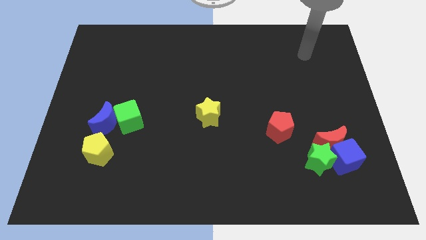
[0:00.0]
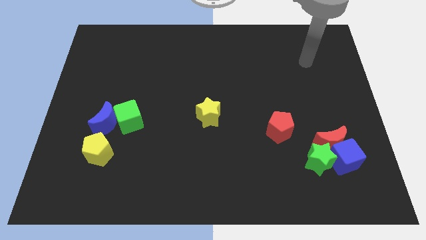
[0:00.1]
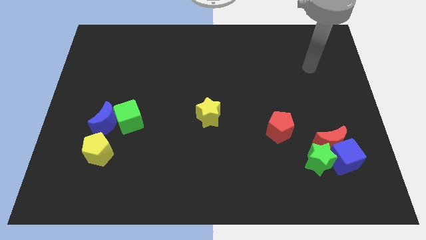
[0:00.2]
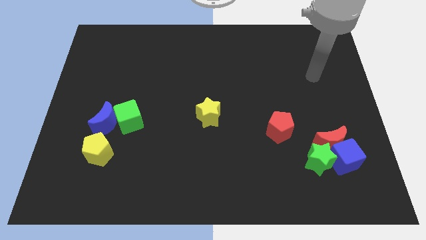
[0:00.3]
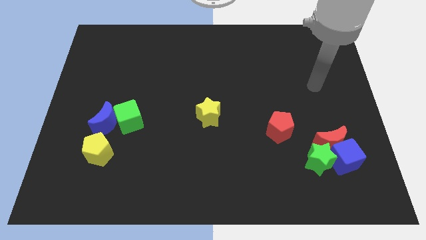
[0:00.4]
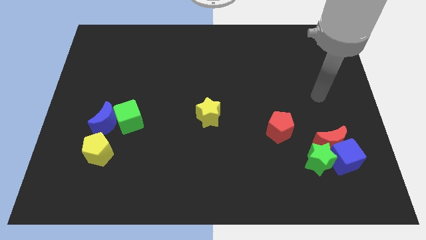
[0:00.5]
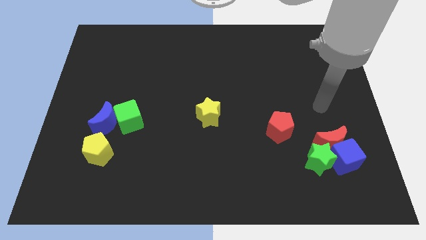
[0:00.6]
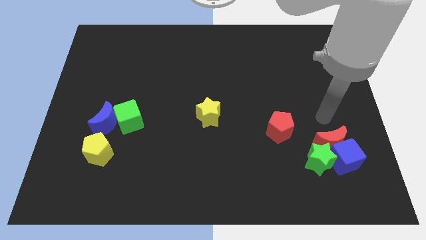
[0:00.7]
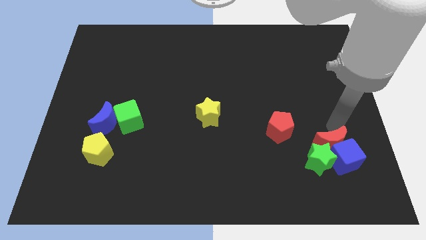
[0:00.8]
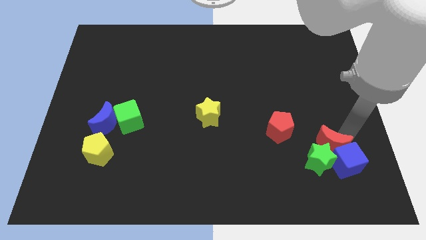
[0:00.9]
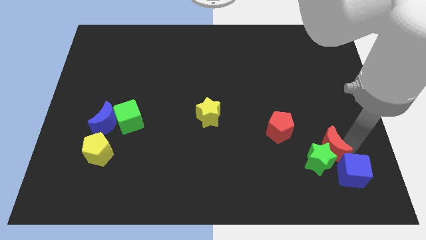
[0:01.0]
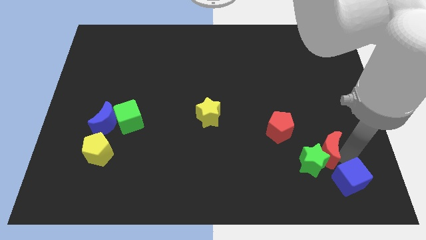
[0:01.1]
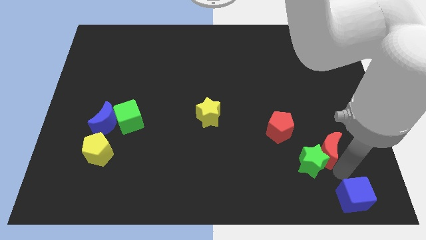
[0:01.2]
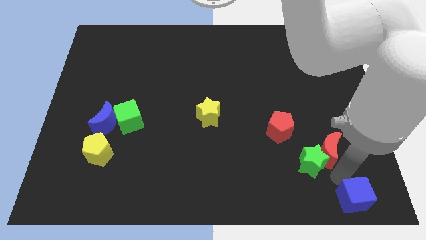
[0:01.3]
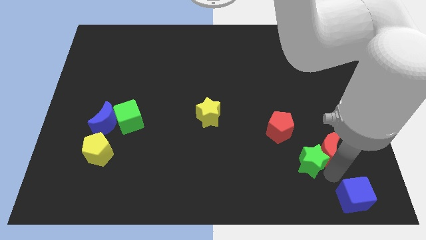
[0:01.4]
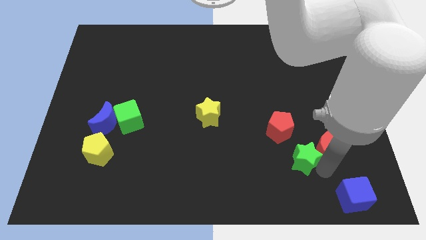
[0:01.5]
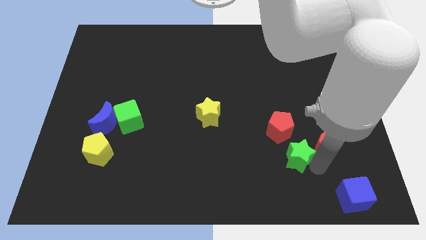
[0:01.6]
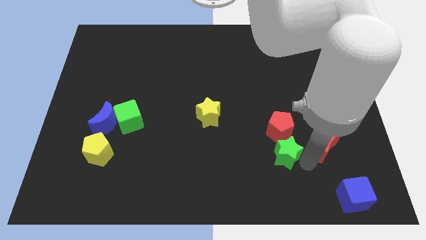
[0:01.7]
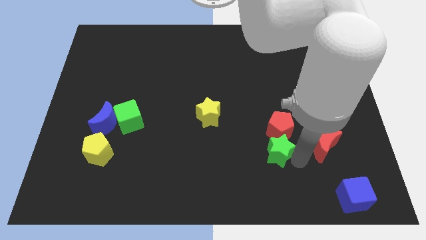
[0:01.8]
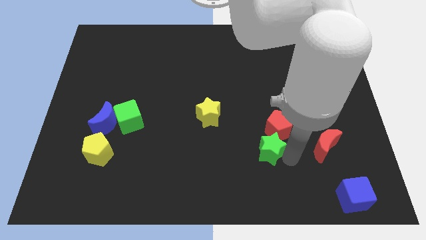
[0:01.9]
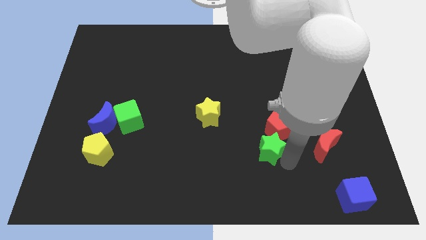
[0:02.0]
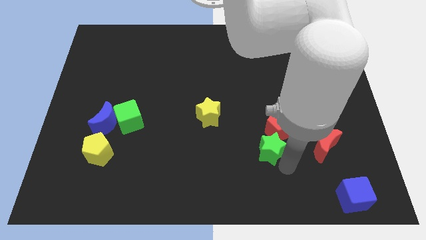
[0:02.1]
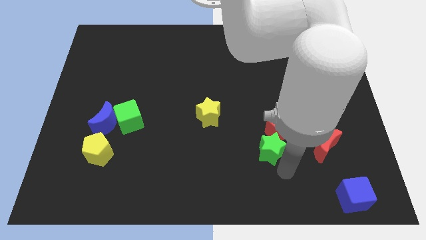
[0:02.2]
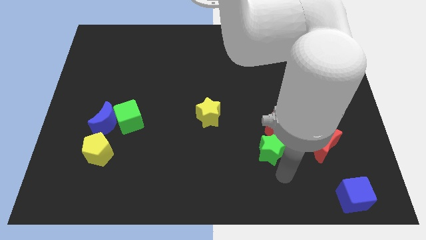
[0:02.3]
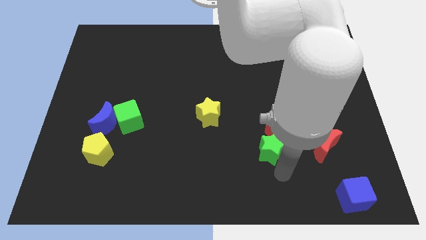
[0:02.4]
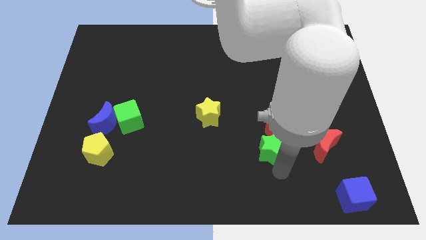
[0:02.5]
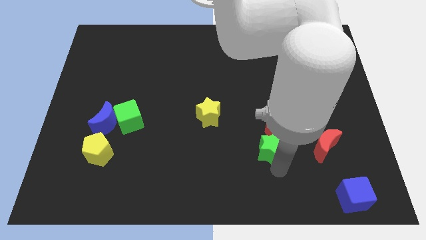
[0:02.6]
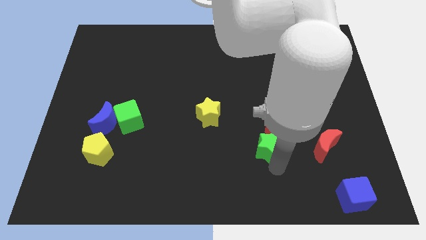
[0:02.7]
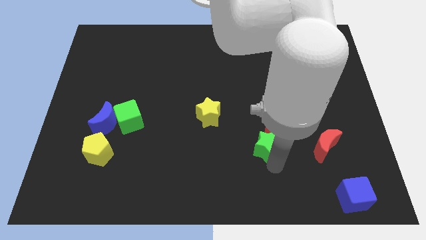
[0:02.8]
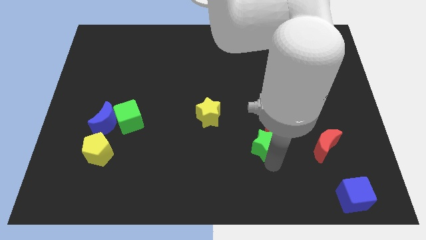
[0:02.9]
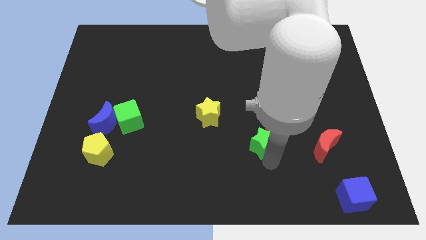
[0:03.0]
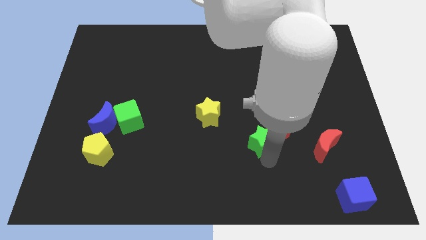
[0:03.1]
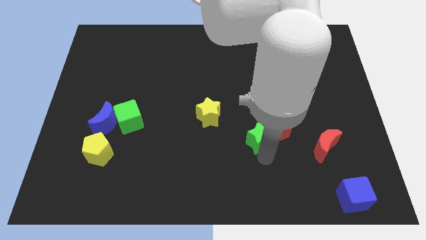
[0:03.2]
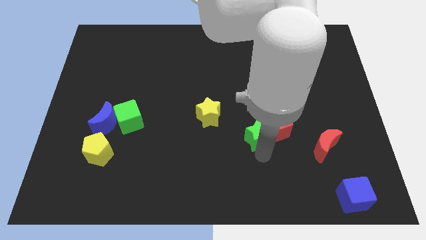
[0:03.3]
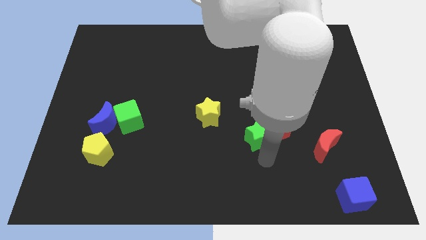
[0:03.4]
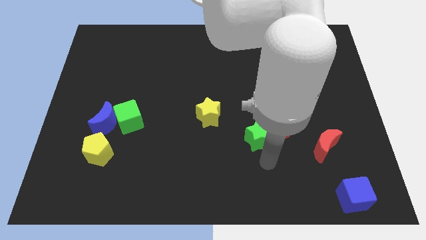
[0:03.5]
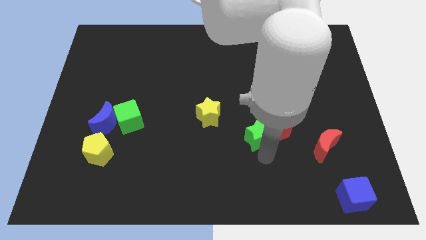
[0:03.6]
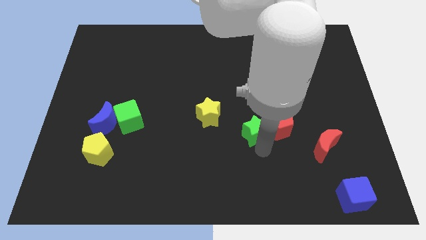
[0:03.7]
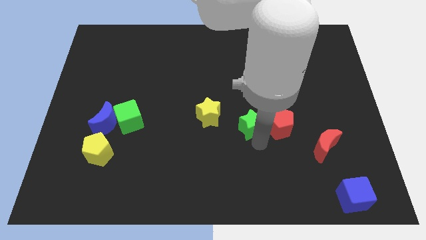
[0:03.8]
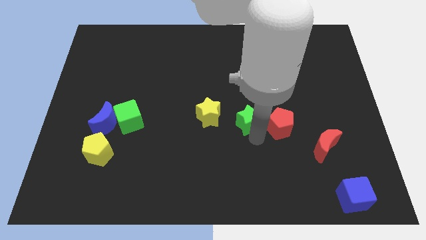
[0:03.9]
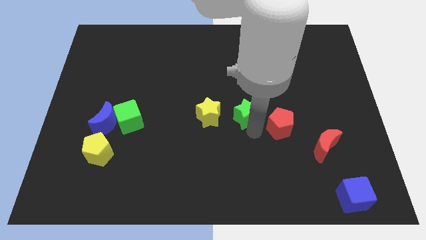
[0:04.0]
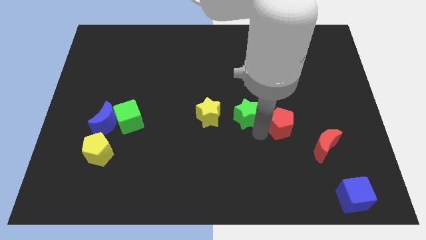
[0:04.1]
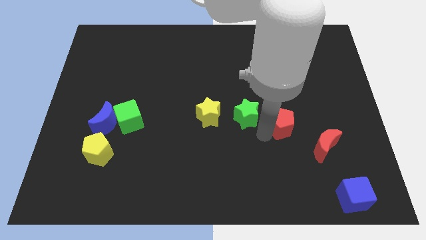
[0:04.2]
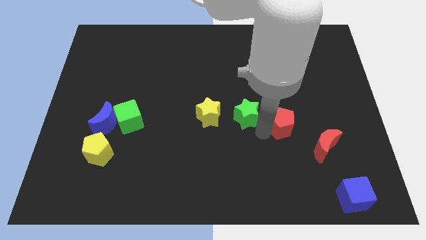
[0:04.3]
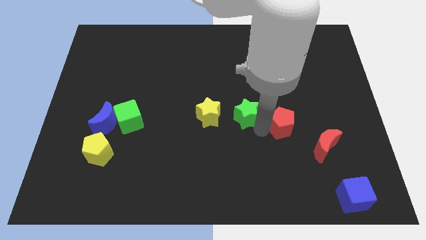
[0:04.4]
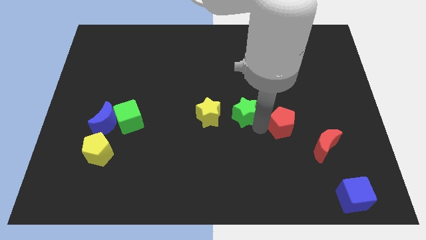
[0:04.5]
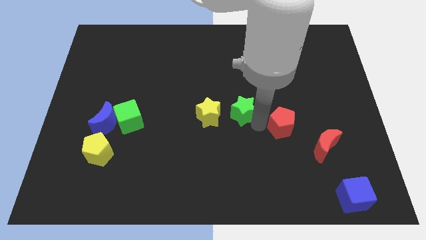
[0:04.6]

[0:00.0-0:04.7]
slide the green star up and to the left

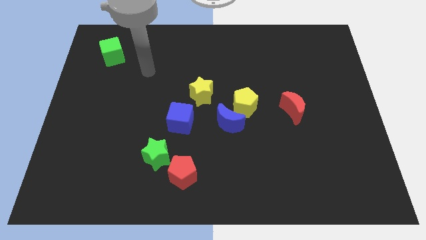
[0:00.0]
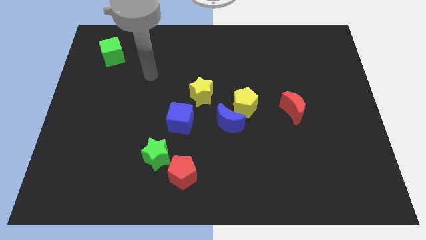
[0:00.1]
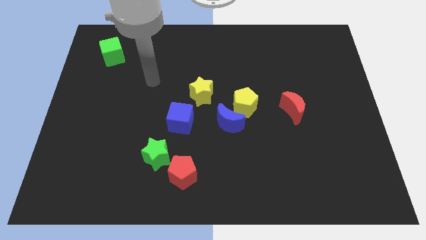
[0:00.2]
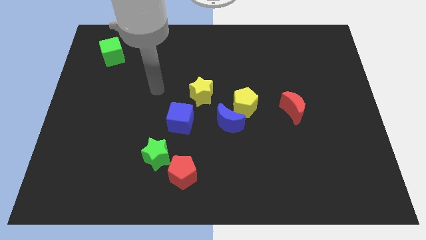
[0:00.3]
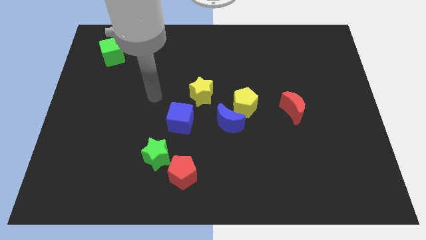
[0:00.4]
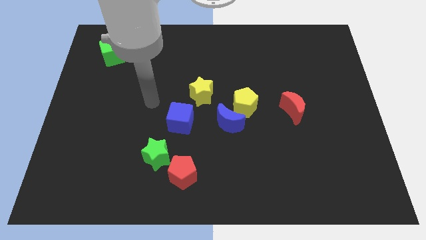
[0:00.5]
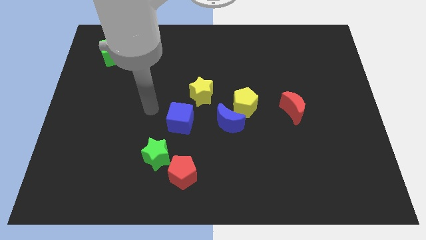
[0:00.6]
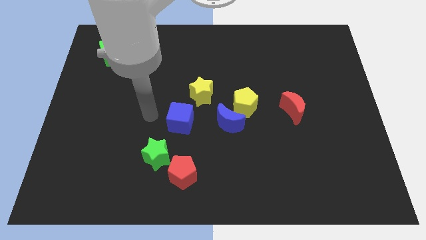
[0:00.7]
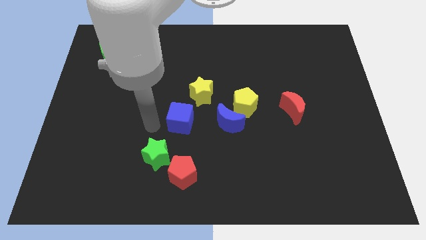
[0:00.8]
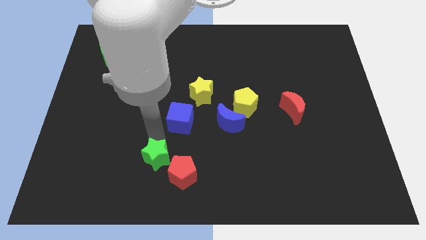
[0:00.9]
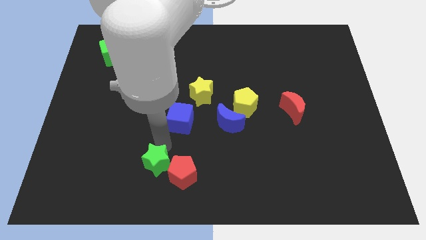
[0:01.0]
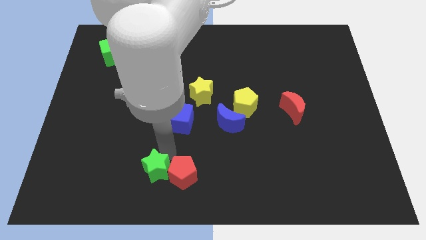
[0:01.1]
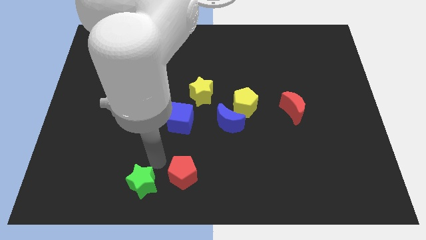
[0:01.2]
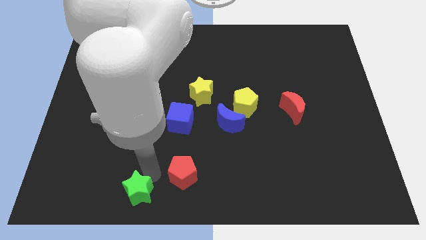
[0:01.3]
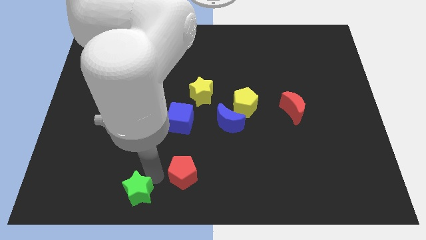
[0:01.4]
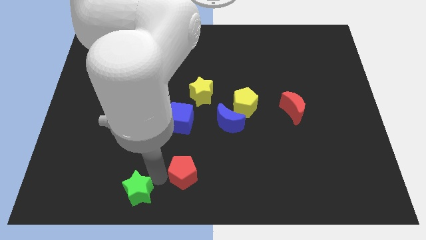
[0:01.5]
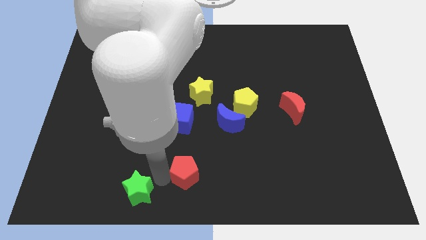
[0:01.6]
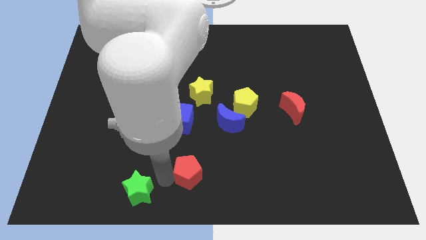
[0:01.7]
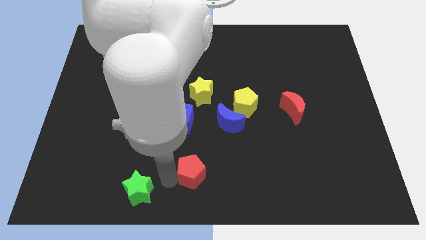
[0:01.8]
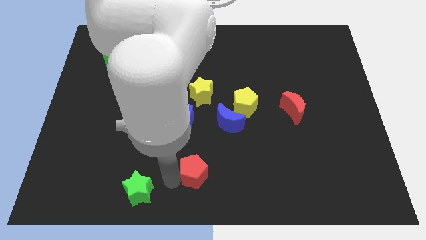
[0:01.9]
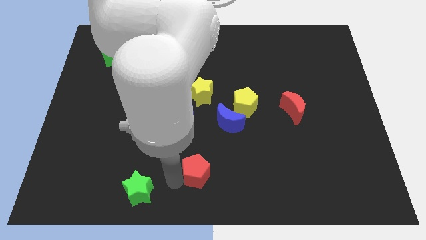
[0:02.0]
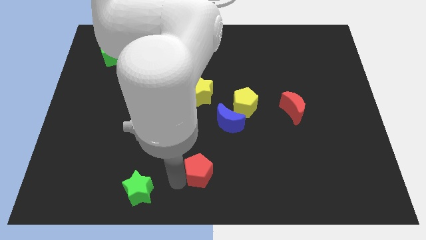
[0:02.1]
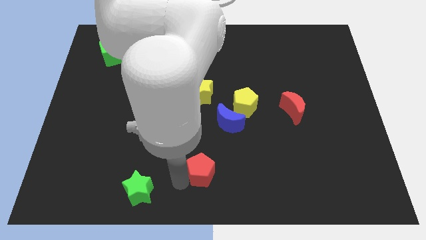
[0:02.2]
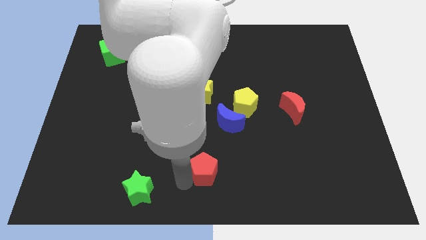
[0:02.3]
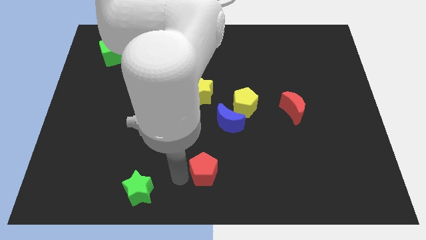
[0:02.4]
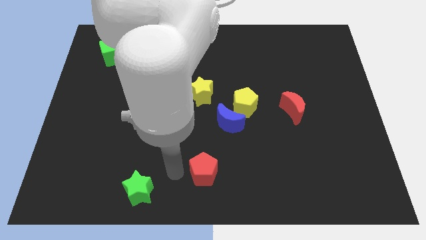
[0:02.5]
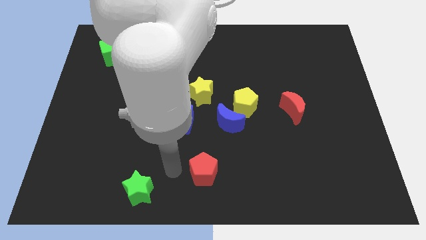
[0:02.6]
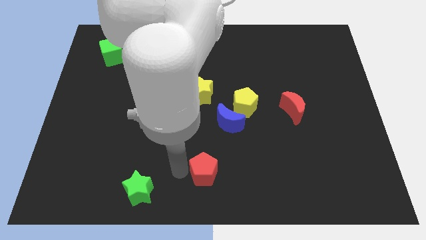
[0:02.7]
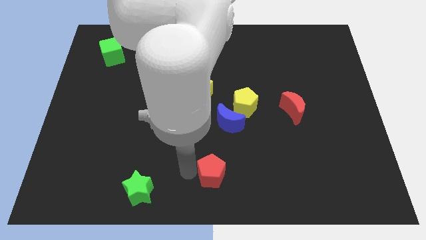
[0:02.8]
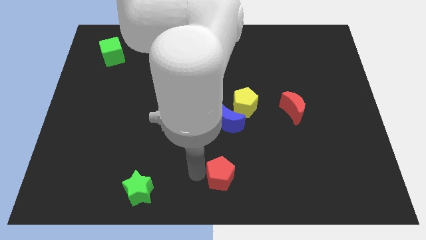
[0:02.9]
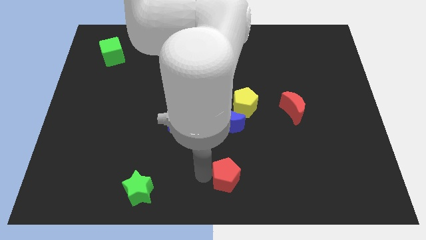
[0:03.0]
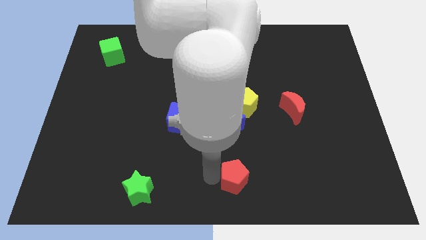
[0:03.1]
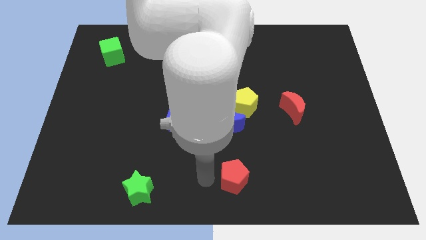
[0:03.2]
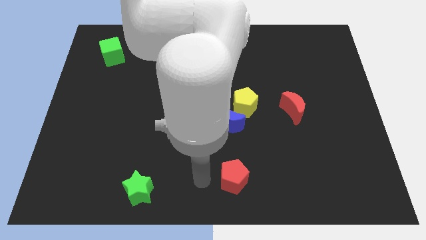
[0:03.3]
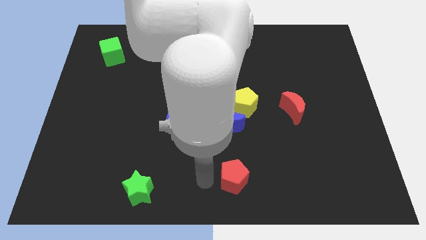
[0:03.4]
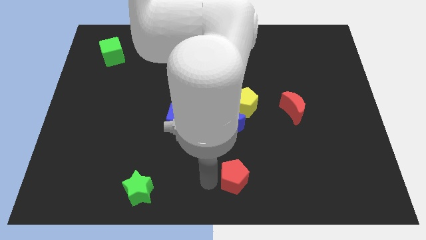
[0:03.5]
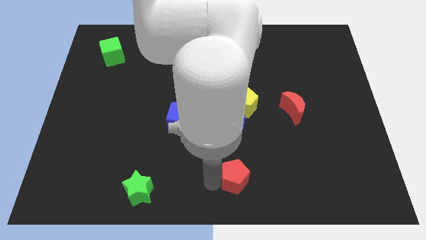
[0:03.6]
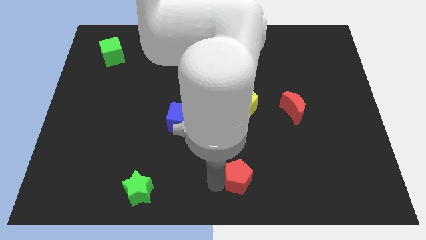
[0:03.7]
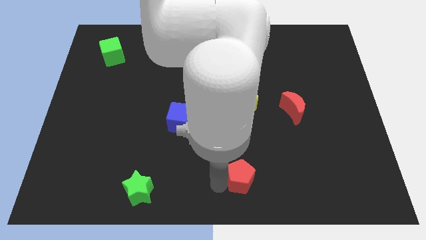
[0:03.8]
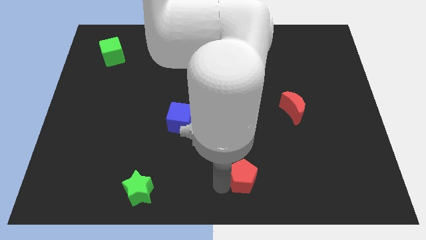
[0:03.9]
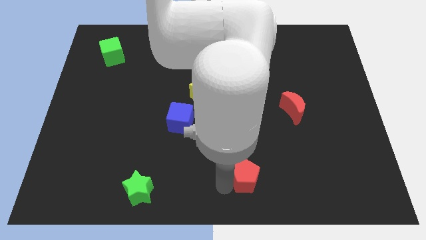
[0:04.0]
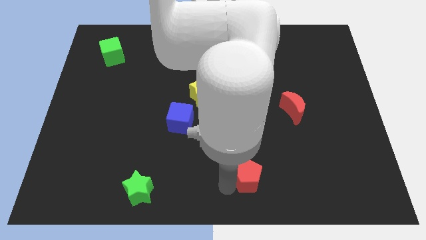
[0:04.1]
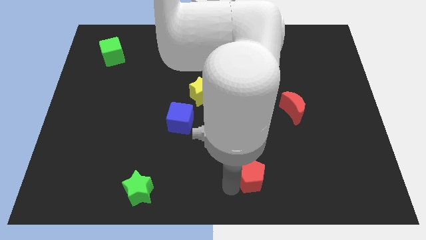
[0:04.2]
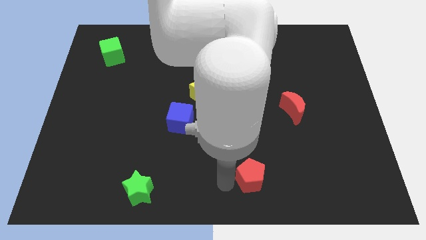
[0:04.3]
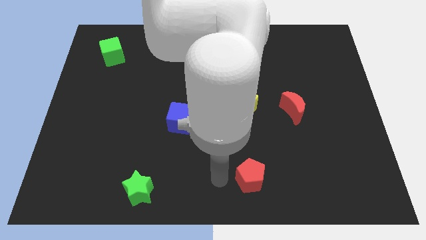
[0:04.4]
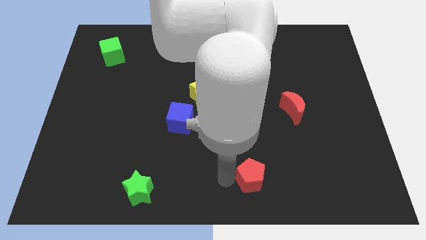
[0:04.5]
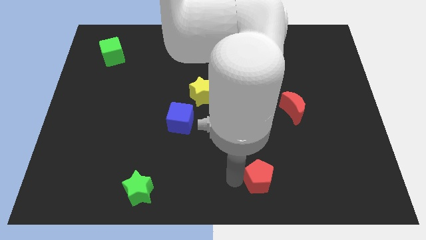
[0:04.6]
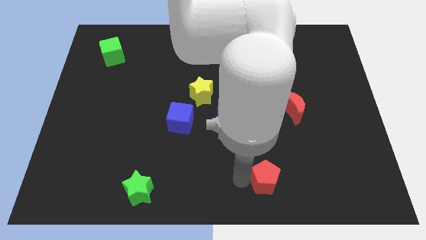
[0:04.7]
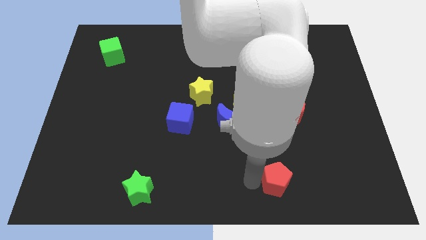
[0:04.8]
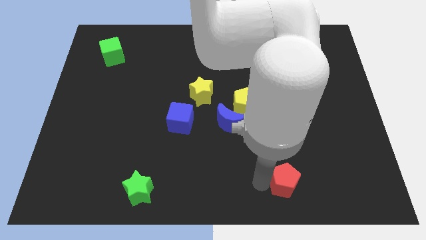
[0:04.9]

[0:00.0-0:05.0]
slide the red pentagon right
